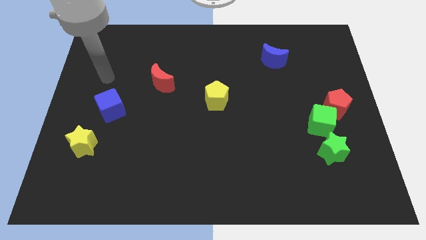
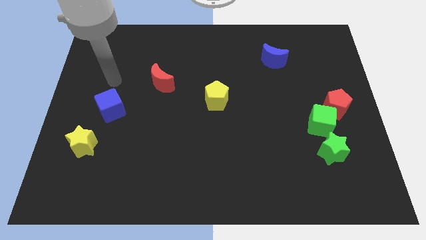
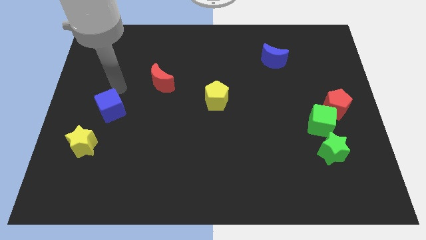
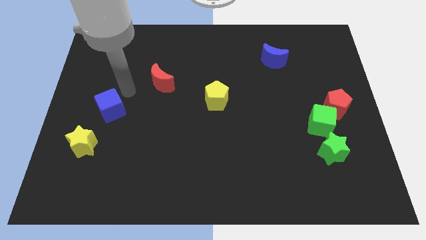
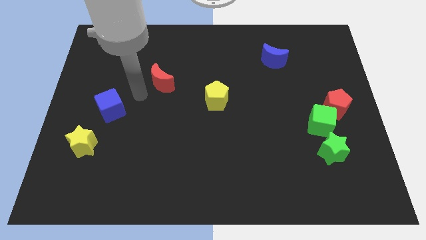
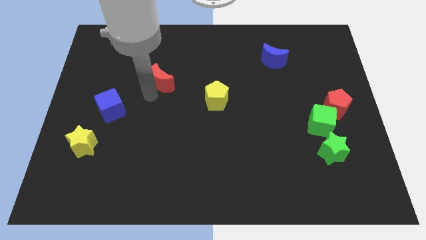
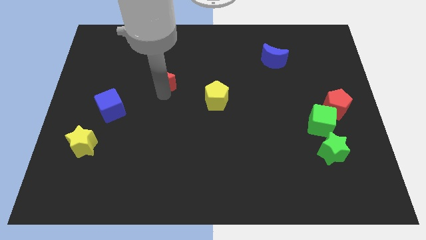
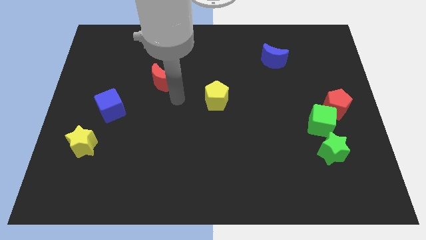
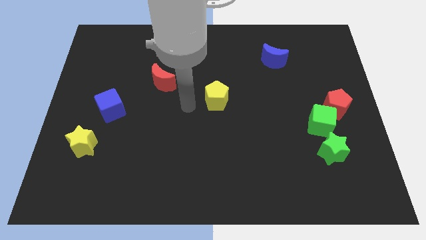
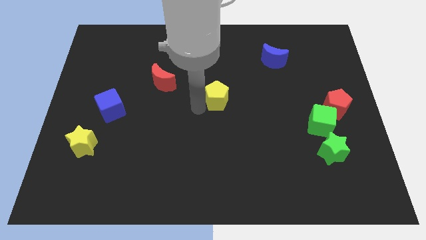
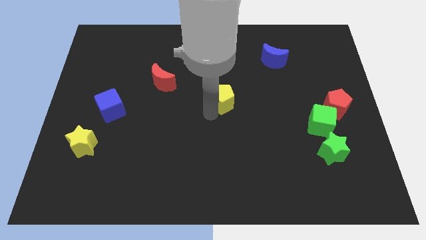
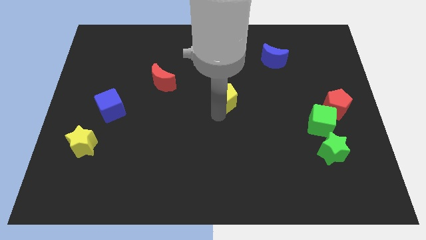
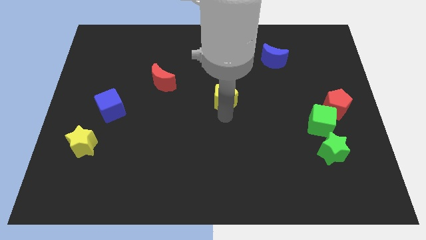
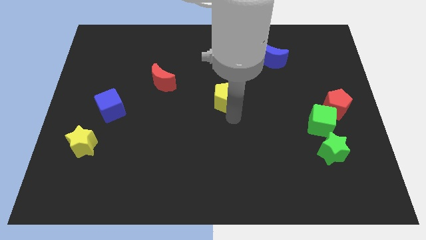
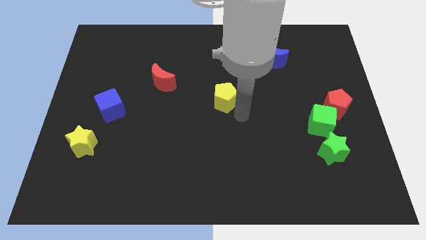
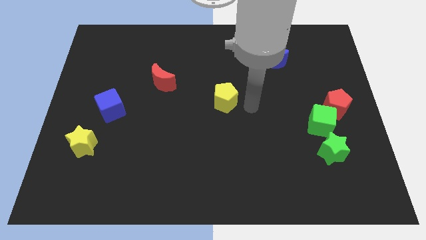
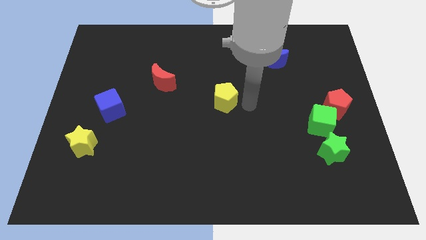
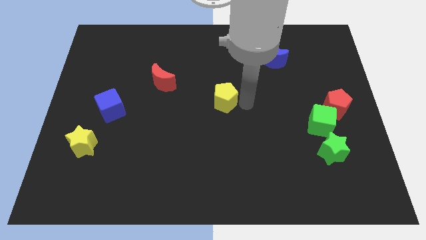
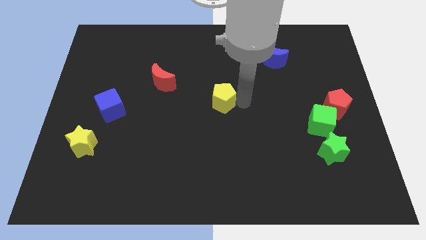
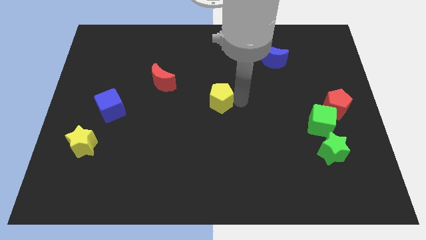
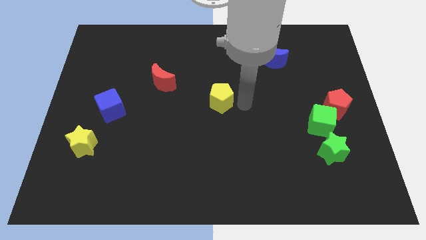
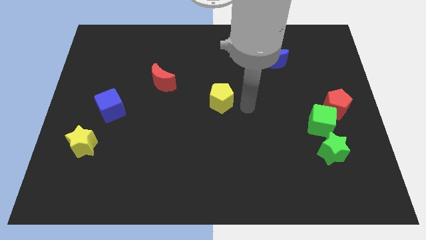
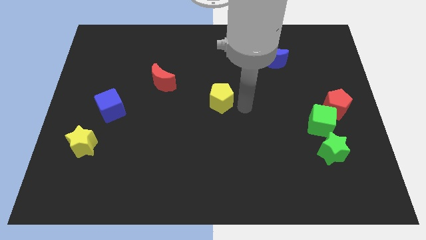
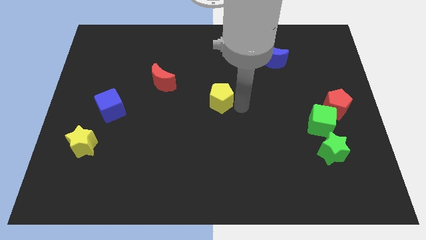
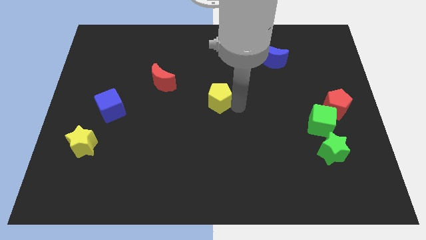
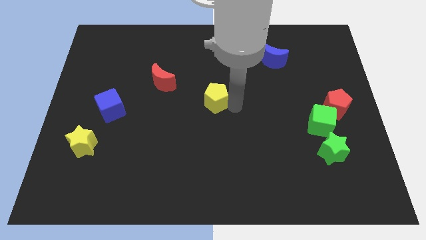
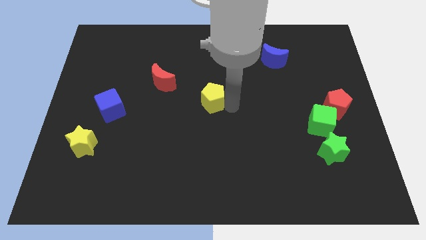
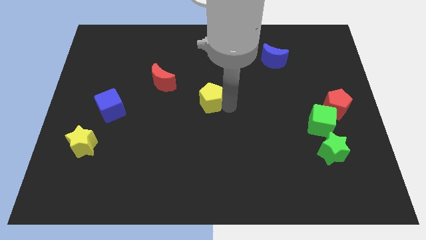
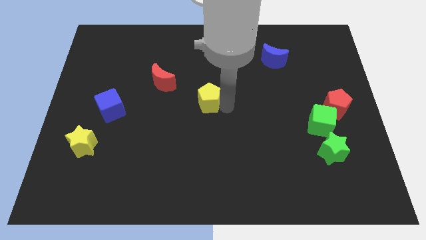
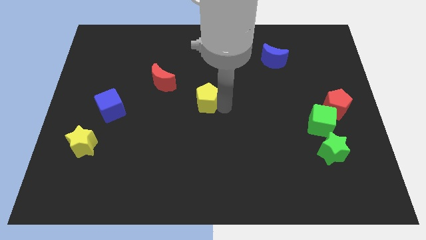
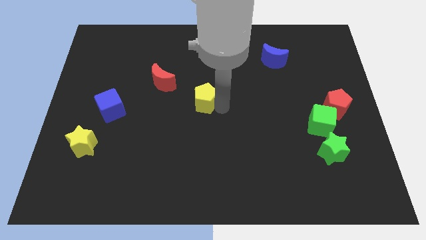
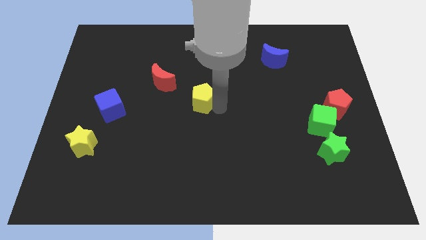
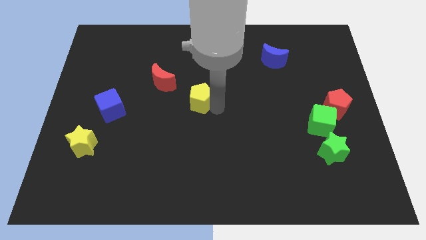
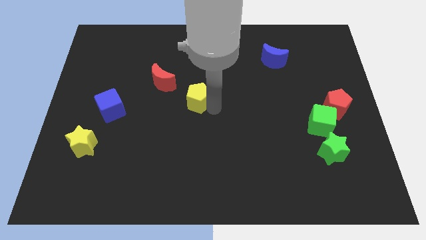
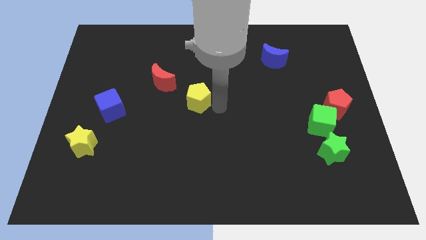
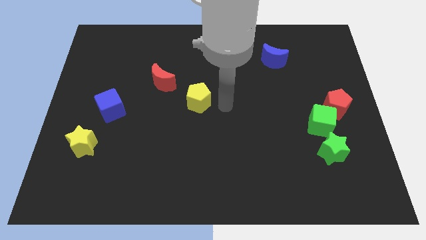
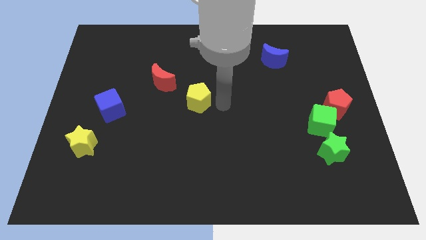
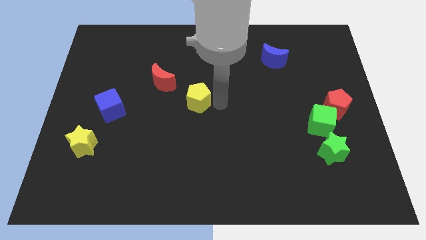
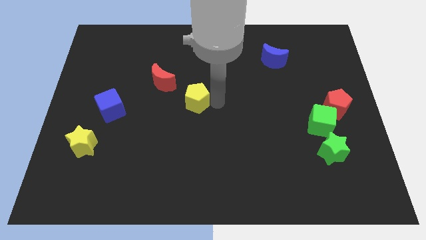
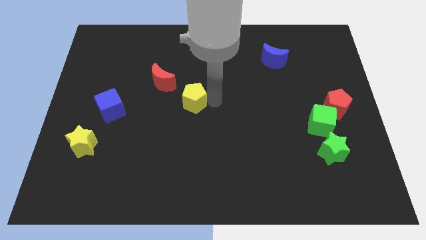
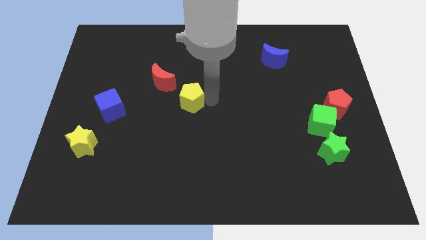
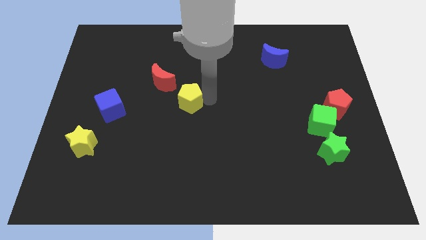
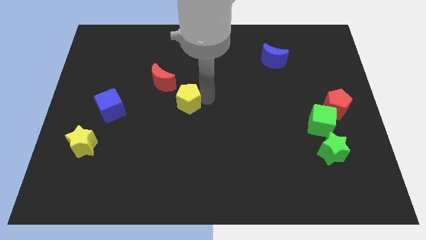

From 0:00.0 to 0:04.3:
move the yellow pentagon to the left slightly

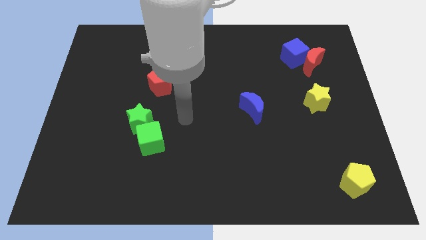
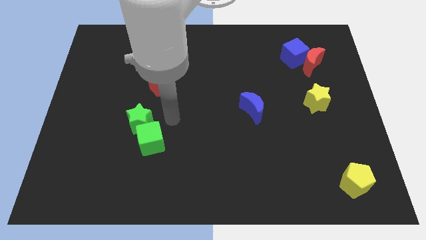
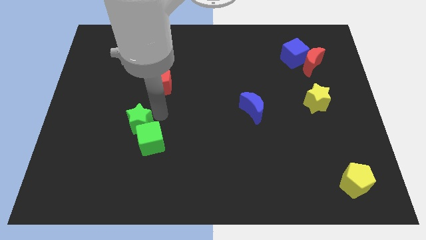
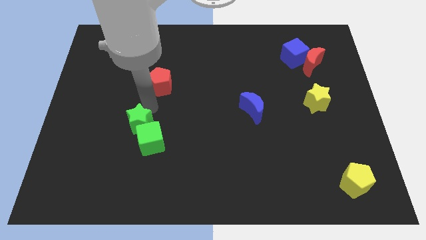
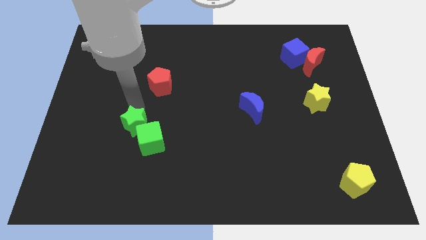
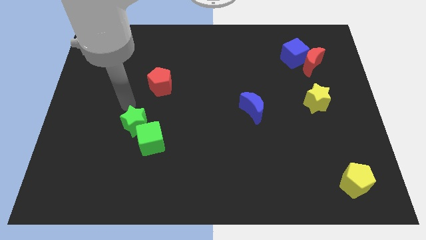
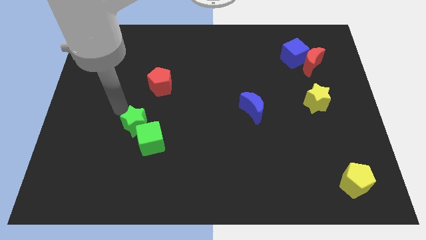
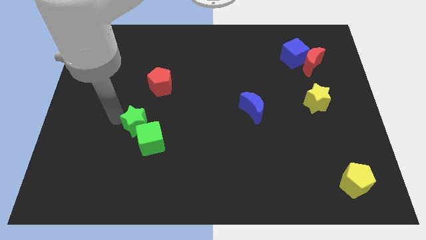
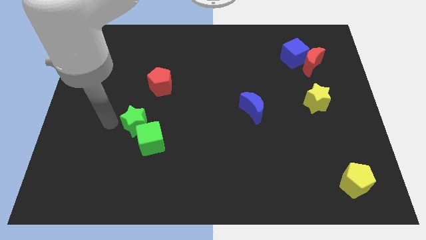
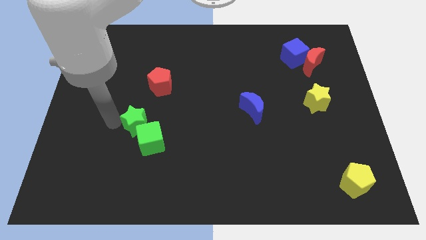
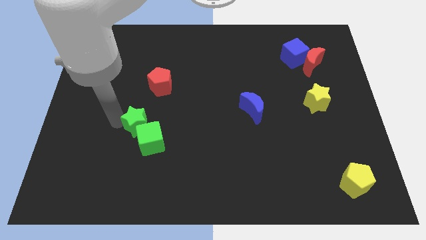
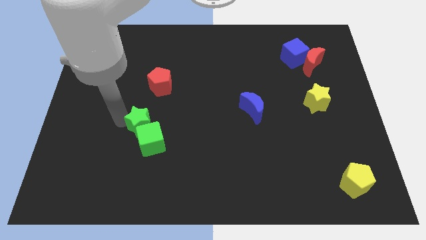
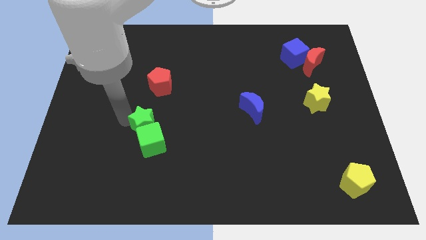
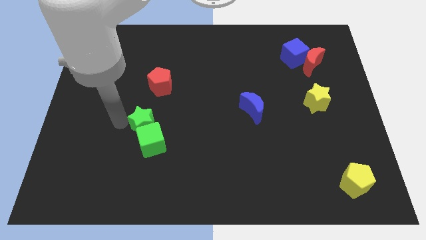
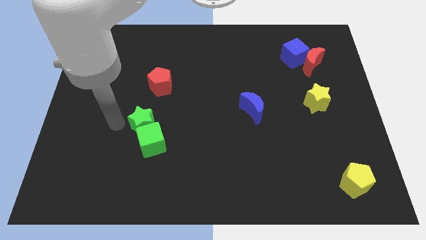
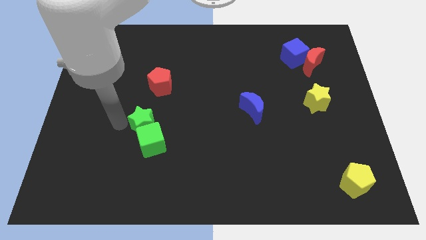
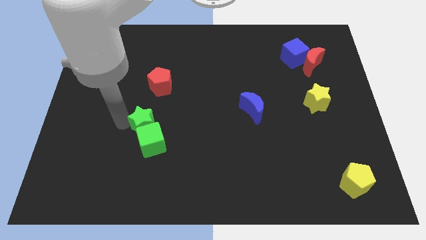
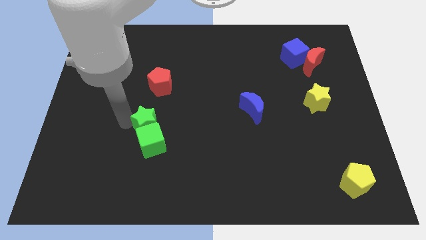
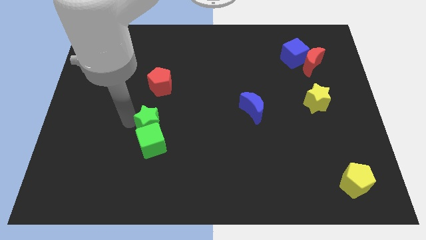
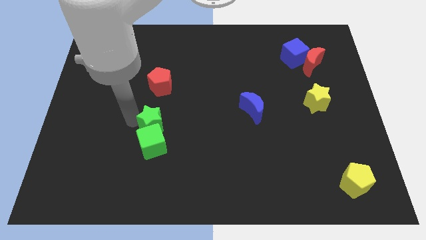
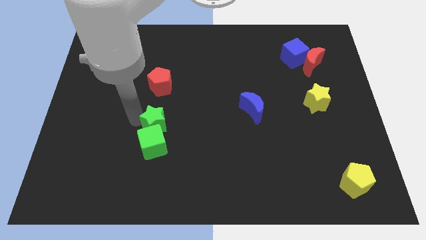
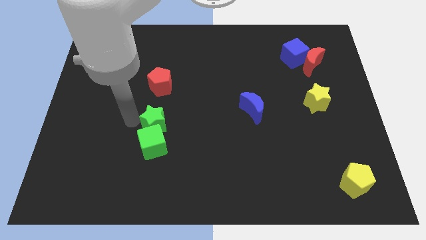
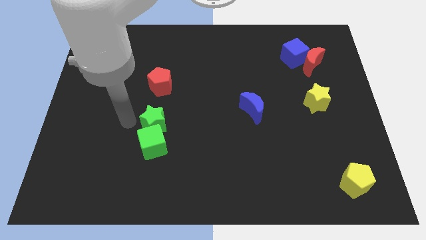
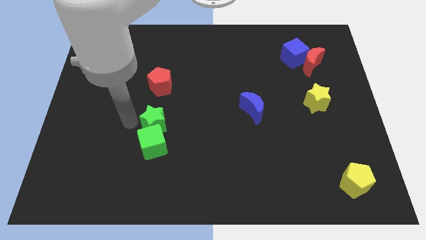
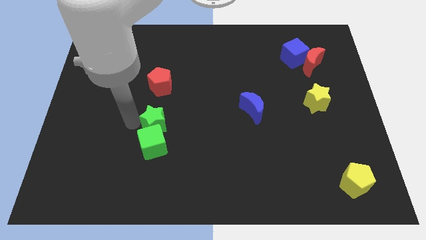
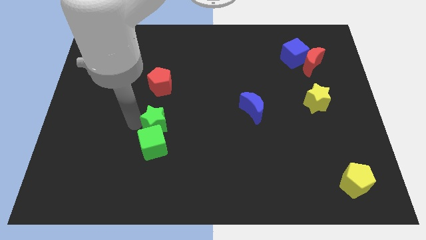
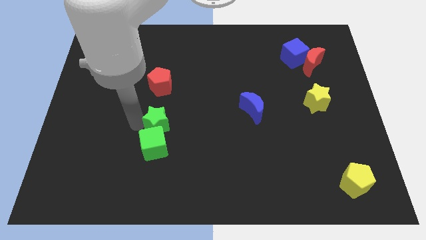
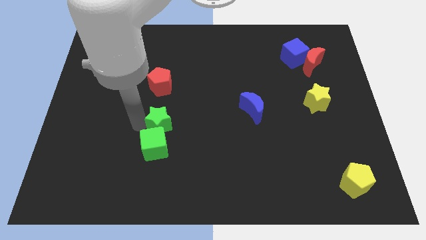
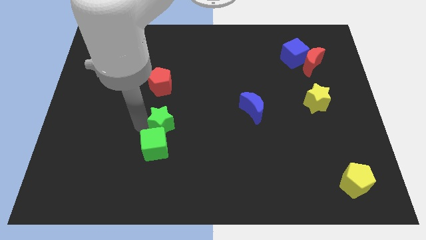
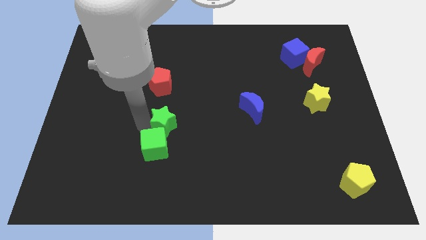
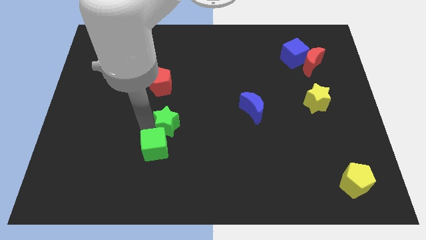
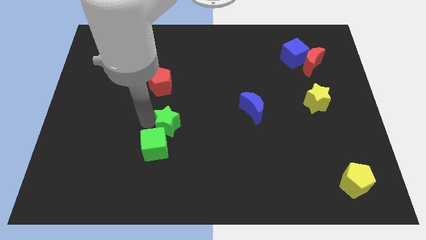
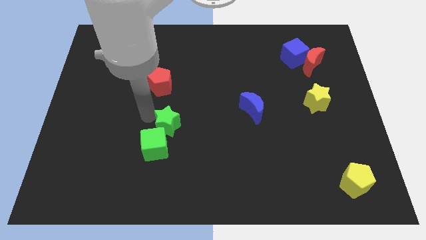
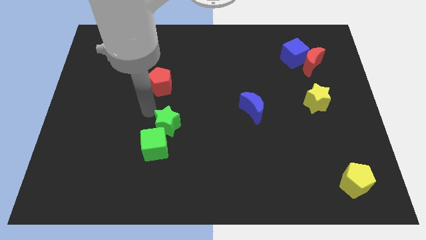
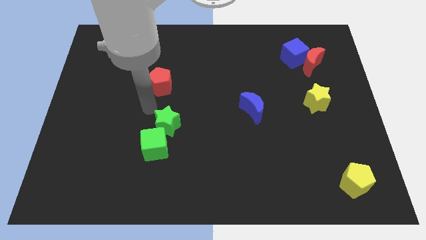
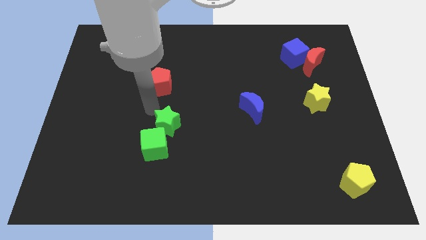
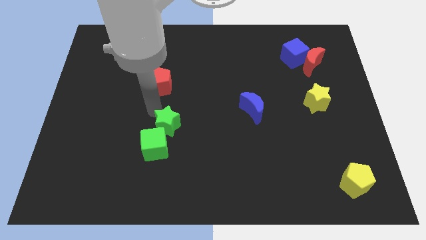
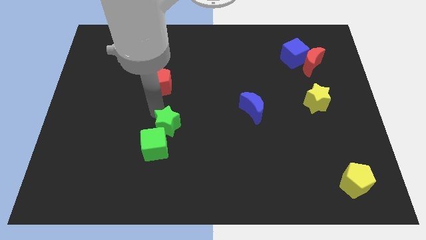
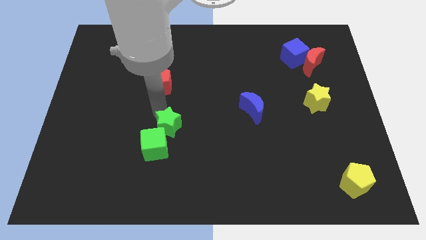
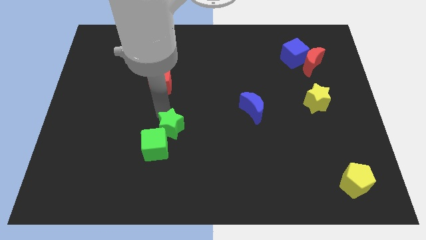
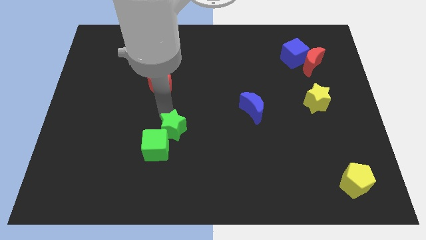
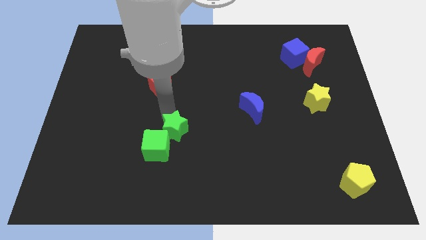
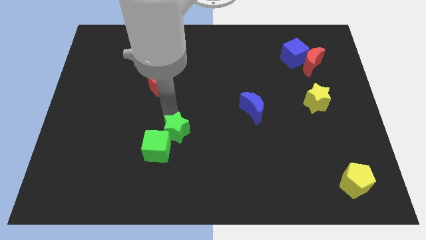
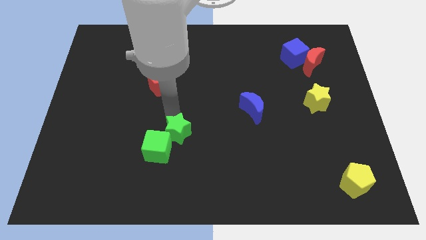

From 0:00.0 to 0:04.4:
push the green star a little down and right diagonally
